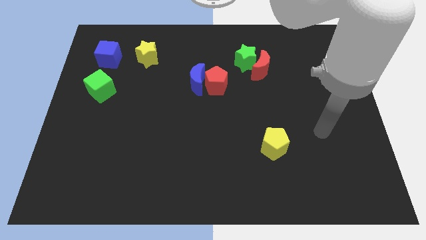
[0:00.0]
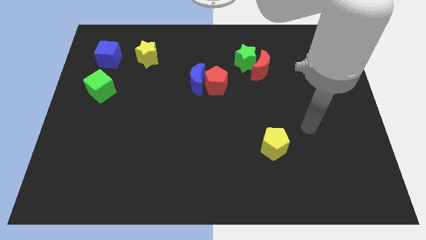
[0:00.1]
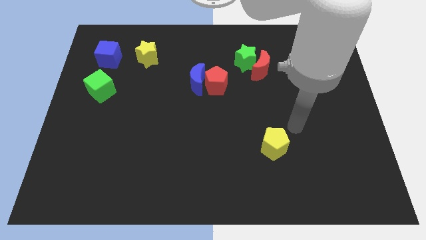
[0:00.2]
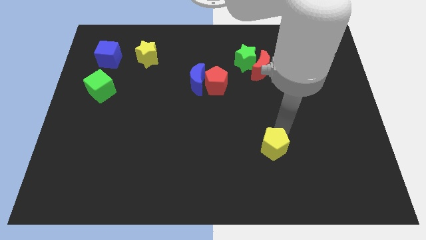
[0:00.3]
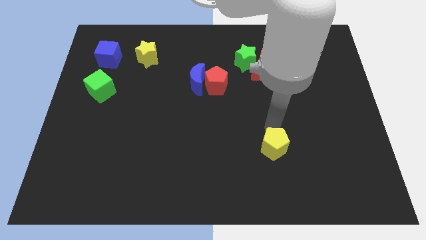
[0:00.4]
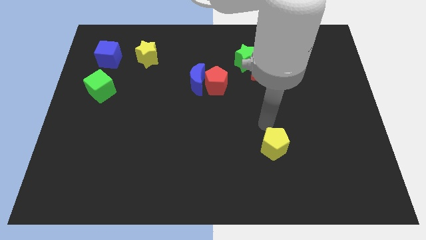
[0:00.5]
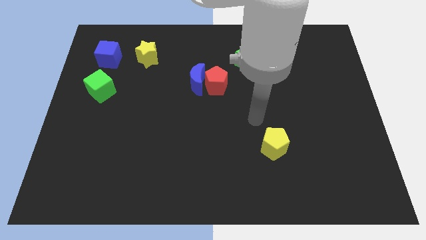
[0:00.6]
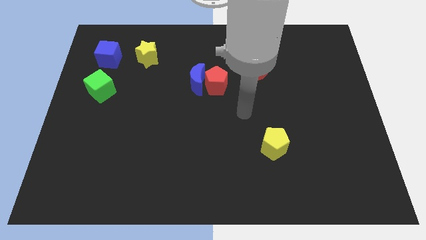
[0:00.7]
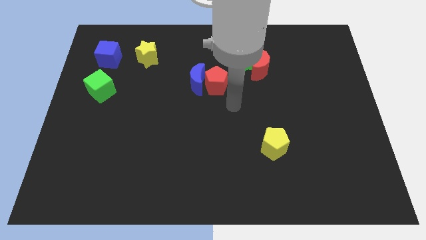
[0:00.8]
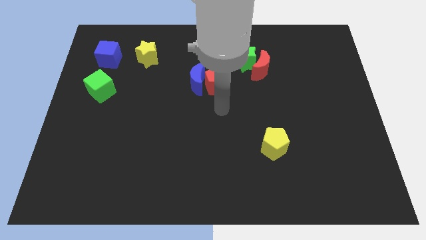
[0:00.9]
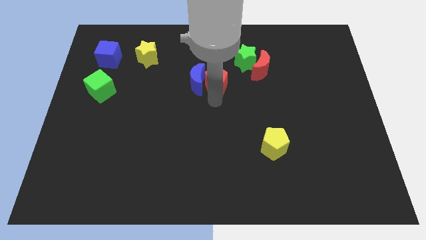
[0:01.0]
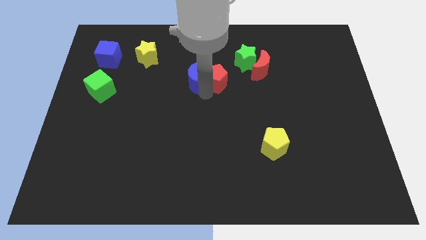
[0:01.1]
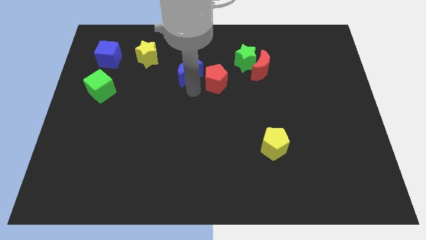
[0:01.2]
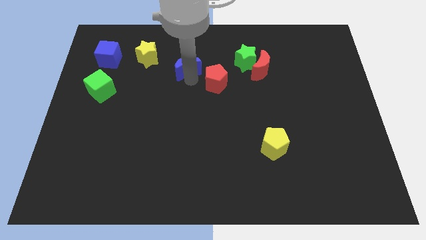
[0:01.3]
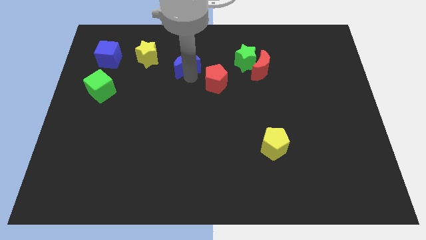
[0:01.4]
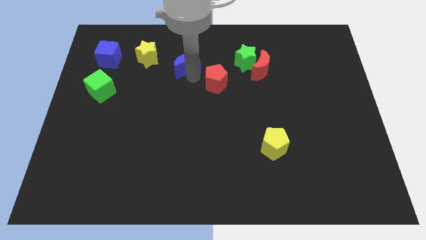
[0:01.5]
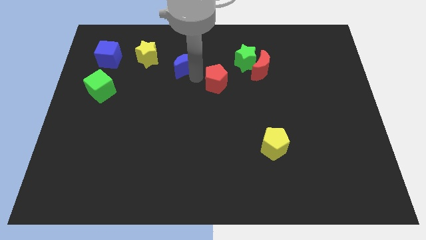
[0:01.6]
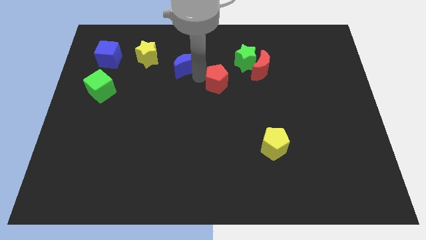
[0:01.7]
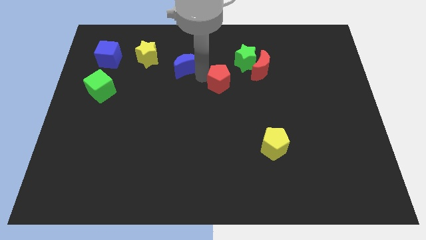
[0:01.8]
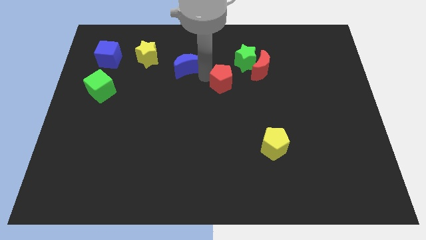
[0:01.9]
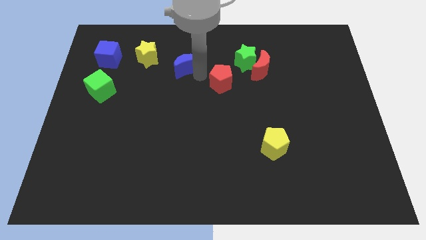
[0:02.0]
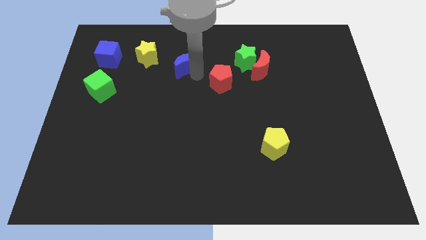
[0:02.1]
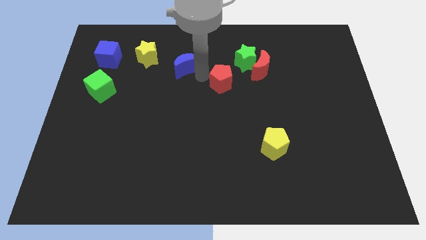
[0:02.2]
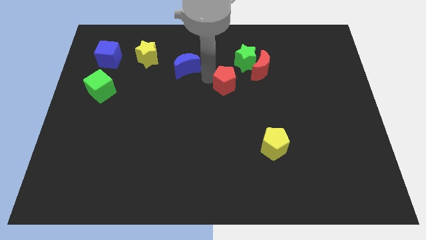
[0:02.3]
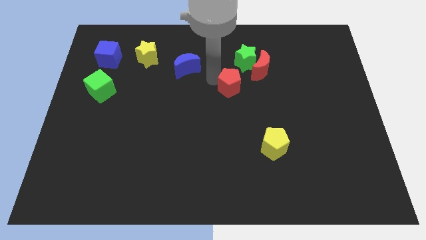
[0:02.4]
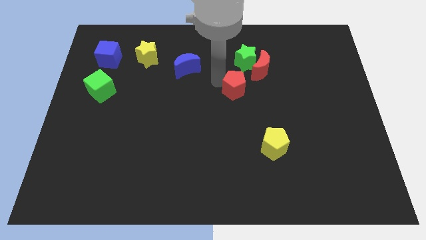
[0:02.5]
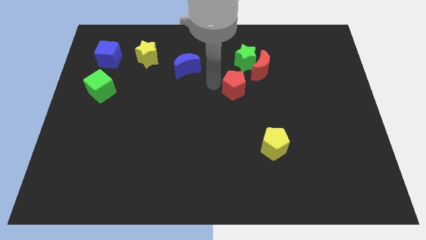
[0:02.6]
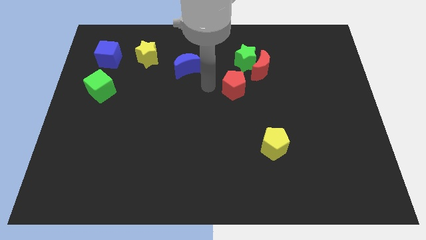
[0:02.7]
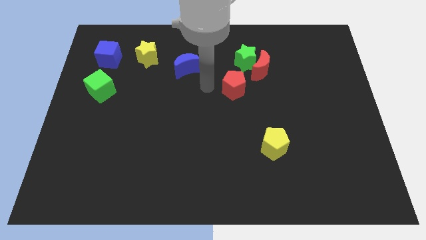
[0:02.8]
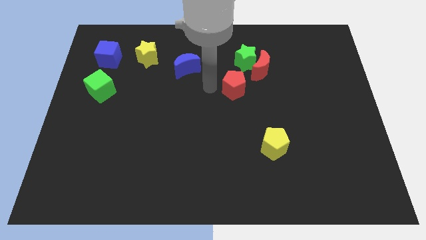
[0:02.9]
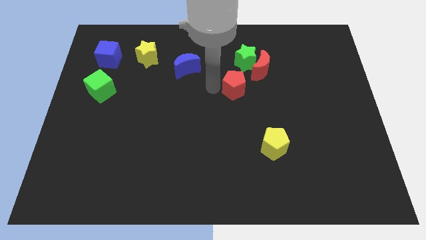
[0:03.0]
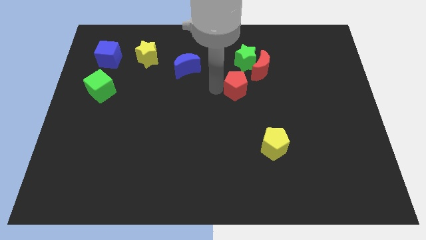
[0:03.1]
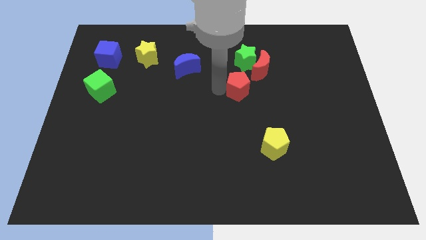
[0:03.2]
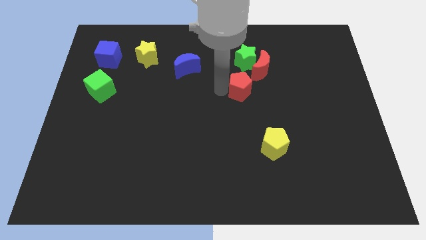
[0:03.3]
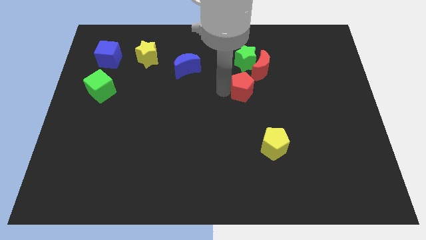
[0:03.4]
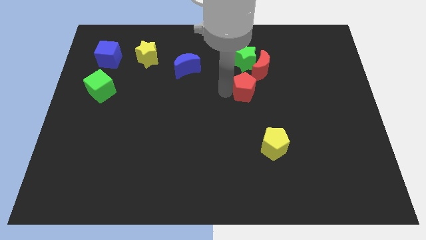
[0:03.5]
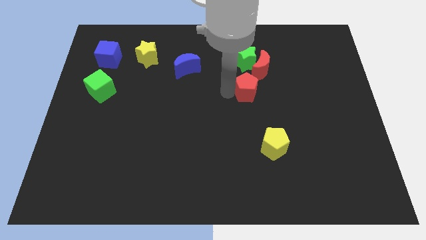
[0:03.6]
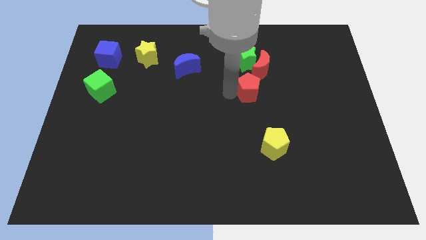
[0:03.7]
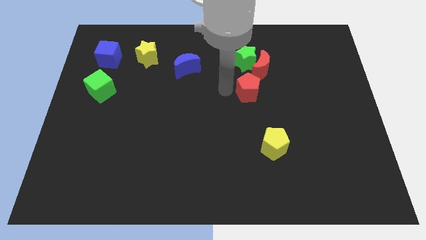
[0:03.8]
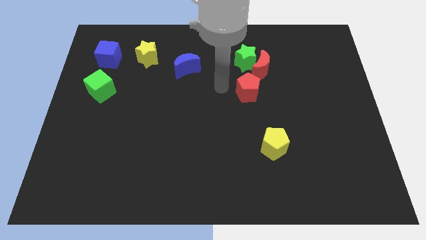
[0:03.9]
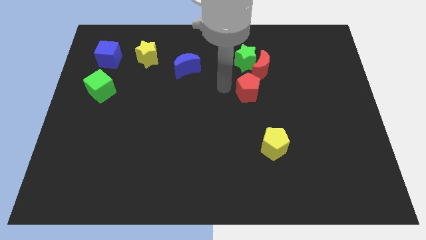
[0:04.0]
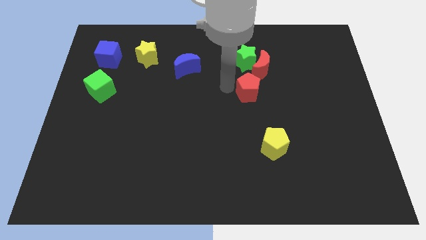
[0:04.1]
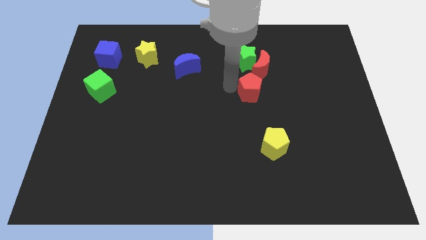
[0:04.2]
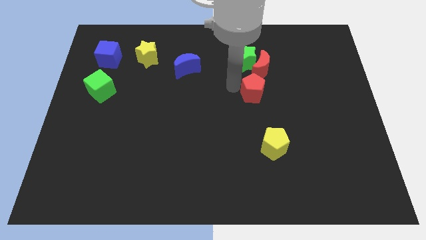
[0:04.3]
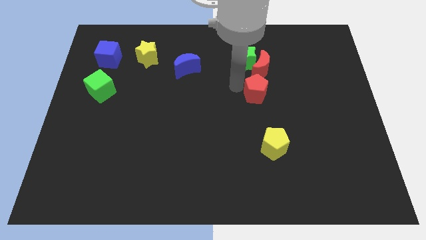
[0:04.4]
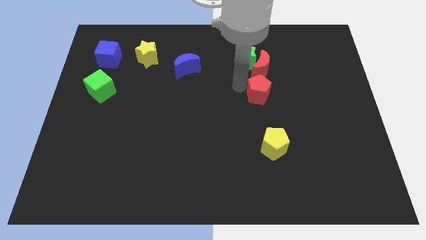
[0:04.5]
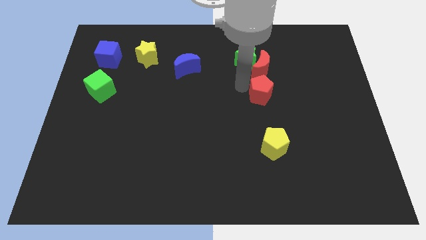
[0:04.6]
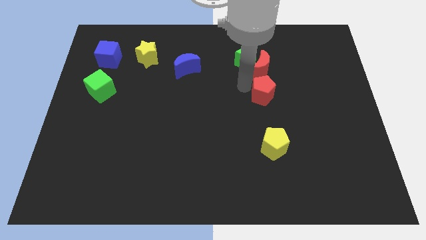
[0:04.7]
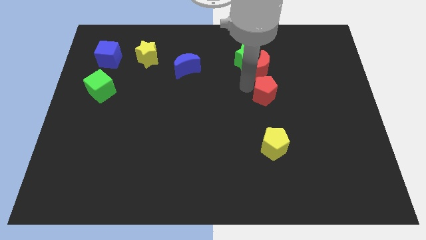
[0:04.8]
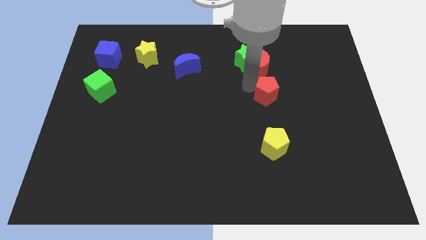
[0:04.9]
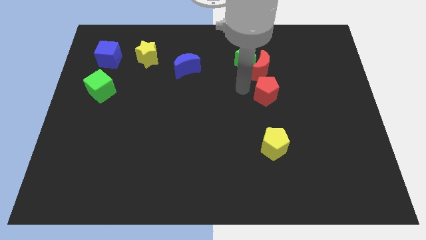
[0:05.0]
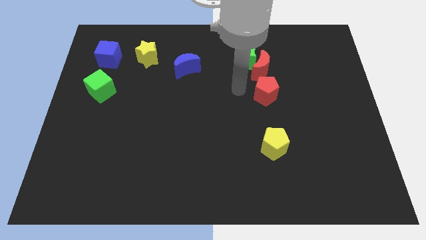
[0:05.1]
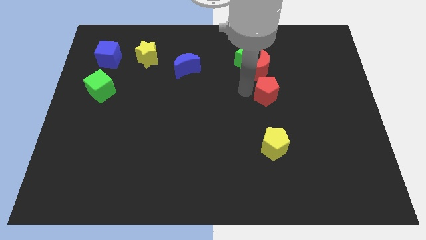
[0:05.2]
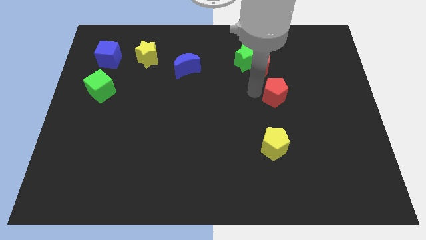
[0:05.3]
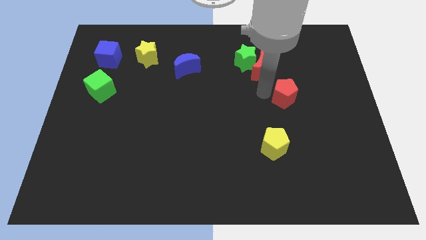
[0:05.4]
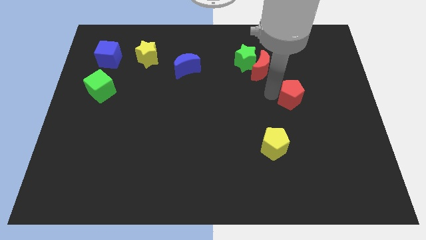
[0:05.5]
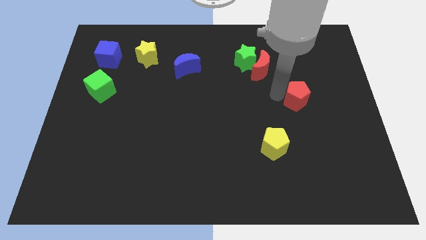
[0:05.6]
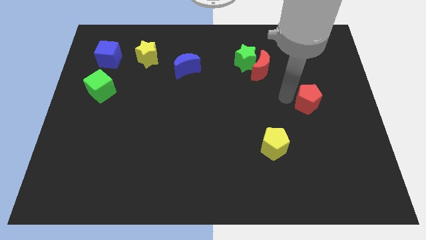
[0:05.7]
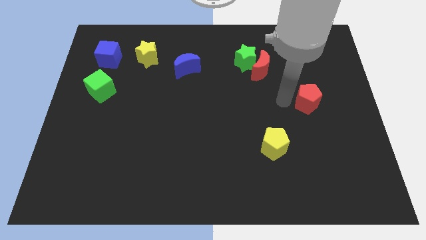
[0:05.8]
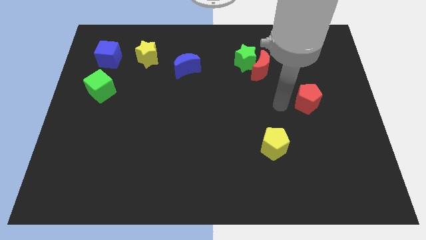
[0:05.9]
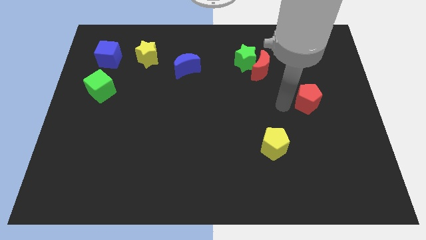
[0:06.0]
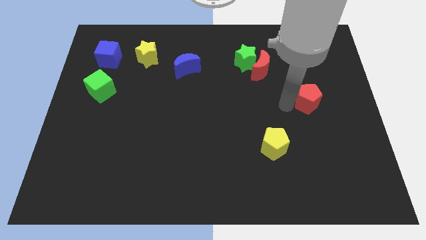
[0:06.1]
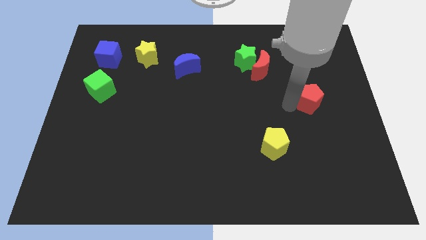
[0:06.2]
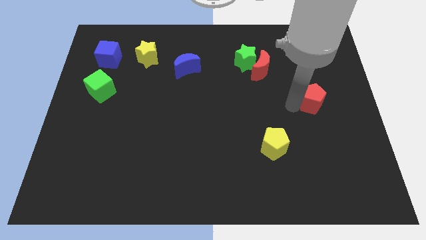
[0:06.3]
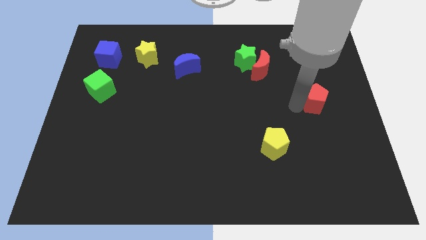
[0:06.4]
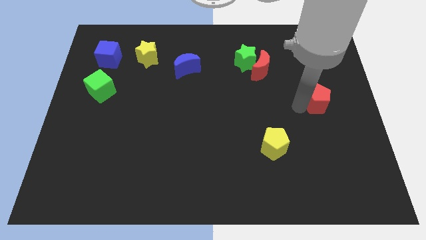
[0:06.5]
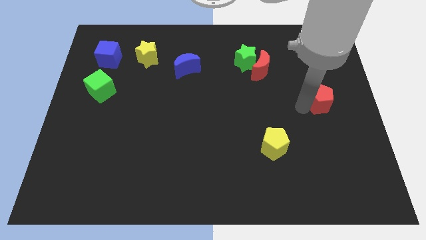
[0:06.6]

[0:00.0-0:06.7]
put the red pentagon to the right side
